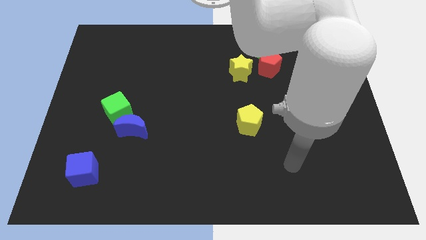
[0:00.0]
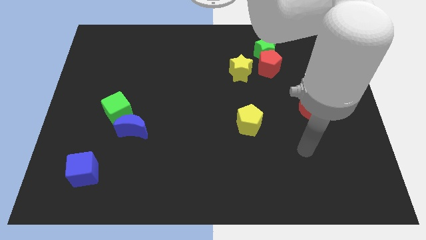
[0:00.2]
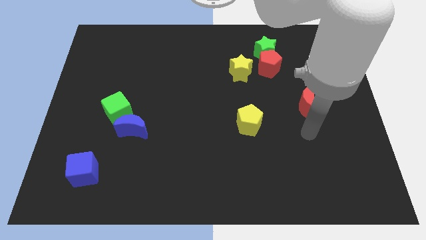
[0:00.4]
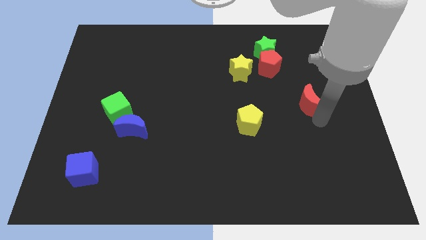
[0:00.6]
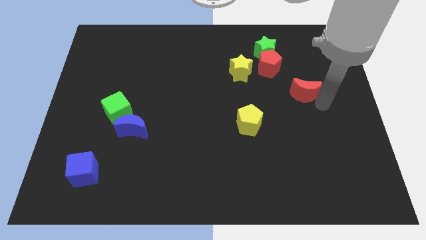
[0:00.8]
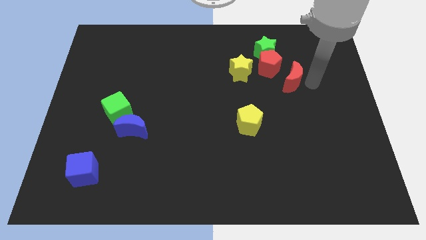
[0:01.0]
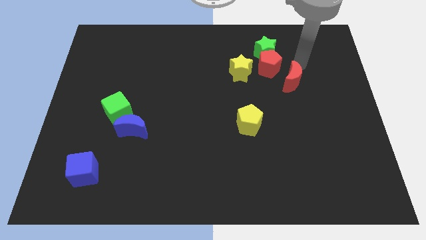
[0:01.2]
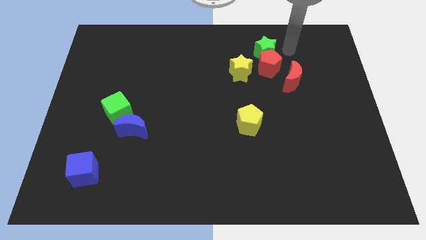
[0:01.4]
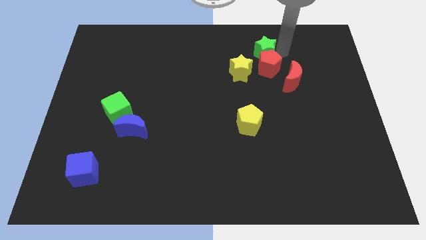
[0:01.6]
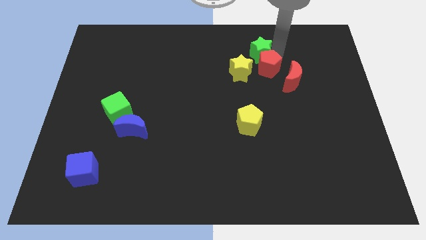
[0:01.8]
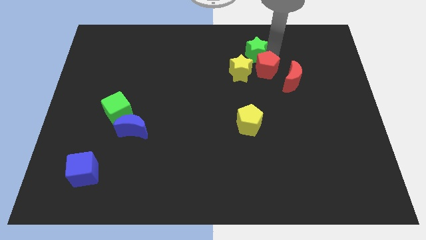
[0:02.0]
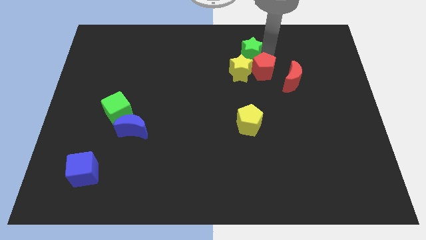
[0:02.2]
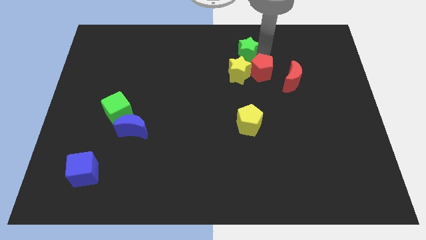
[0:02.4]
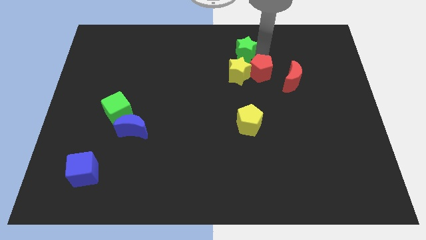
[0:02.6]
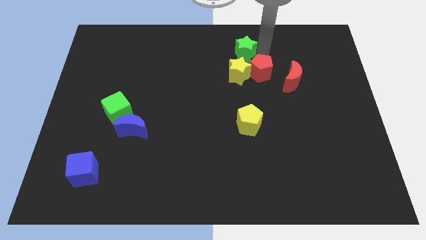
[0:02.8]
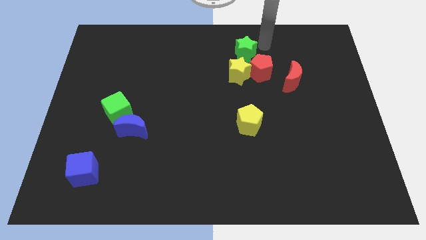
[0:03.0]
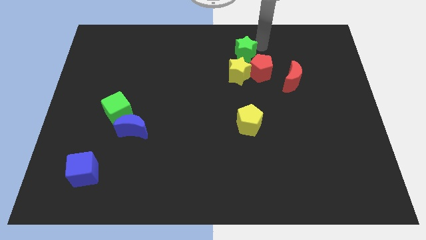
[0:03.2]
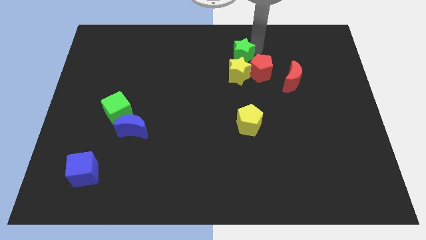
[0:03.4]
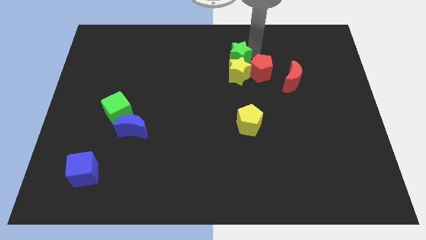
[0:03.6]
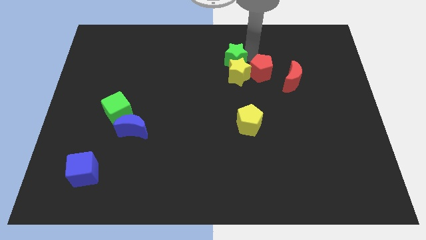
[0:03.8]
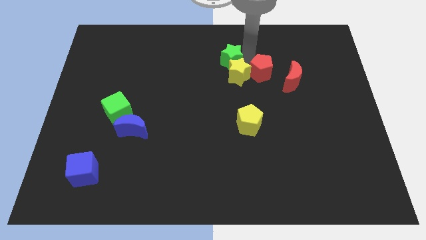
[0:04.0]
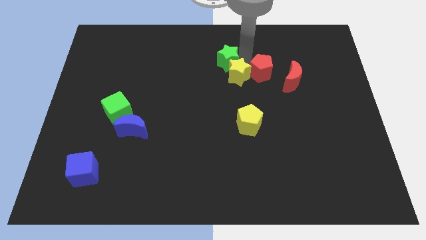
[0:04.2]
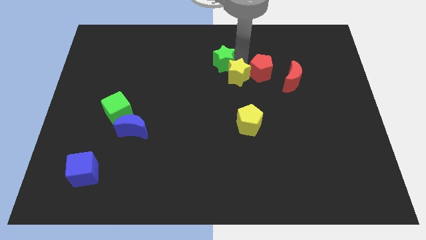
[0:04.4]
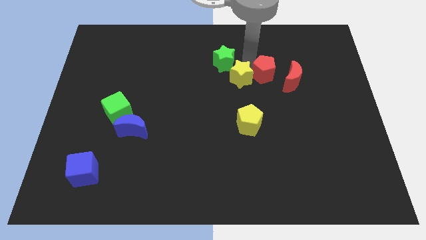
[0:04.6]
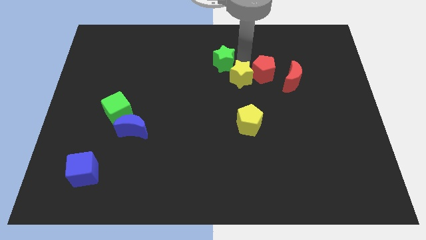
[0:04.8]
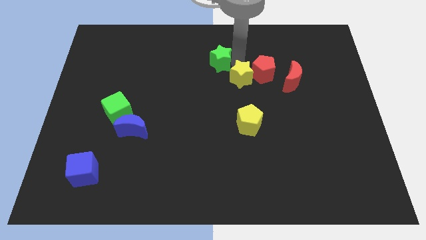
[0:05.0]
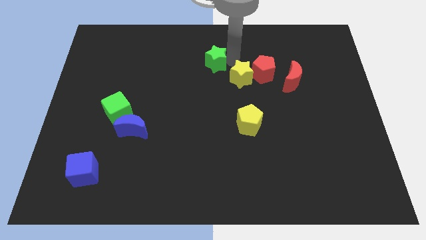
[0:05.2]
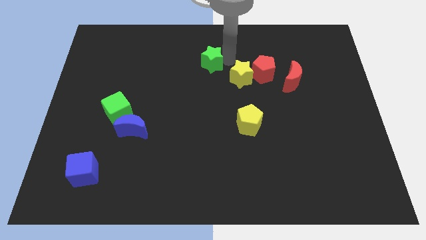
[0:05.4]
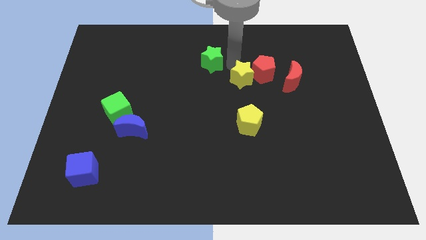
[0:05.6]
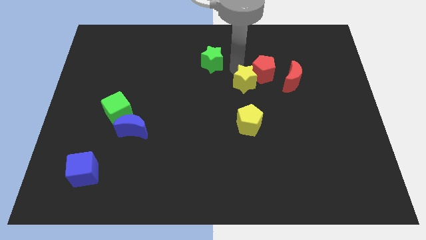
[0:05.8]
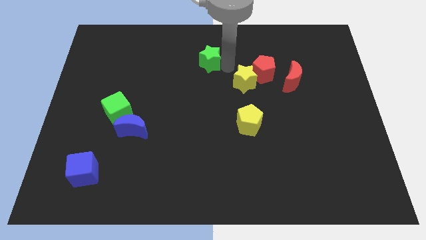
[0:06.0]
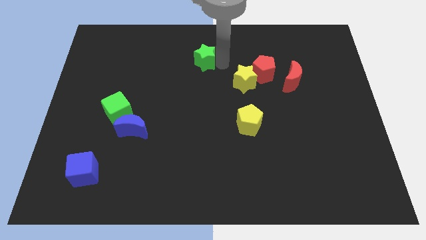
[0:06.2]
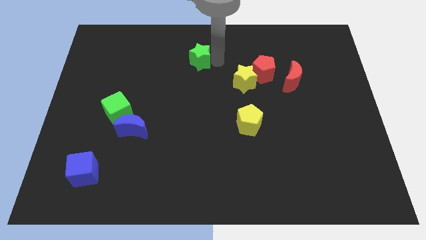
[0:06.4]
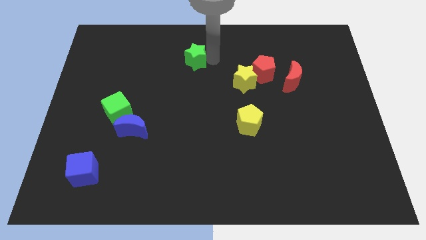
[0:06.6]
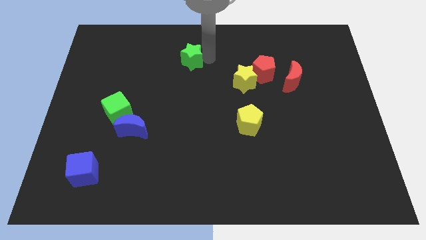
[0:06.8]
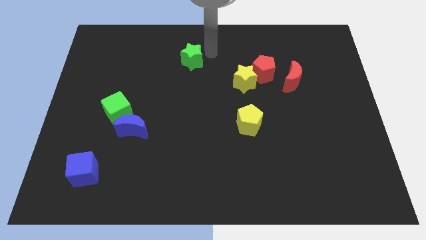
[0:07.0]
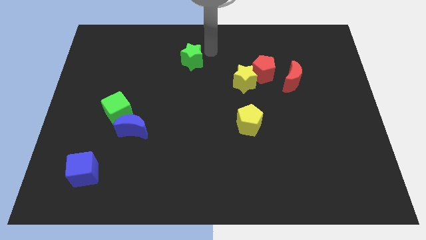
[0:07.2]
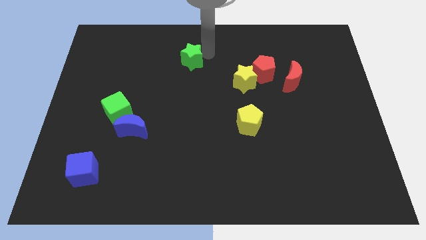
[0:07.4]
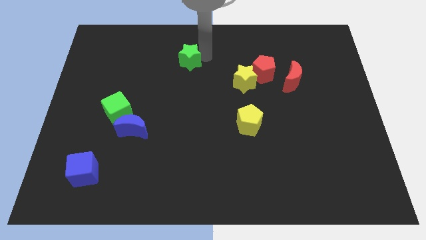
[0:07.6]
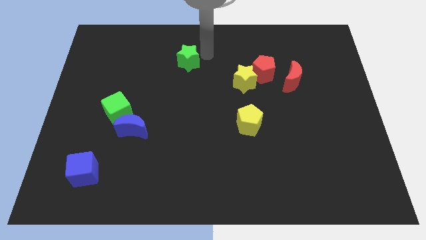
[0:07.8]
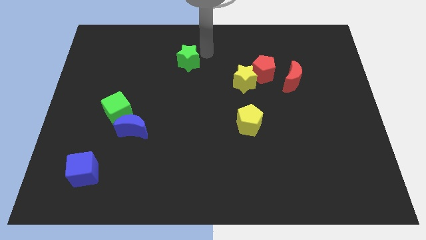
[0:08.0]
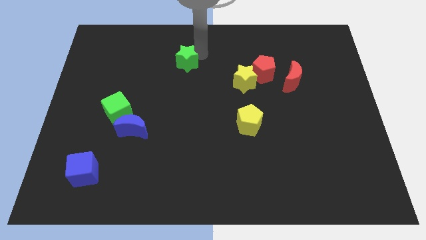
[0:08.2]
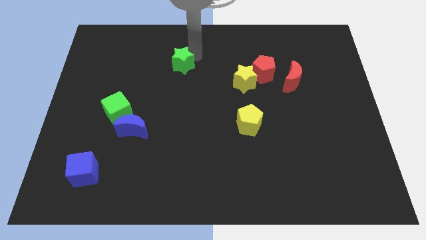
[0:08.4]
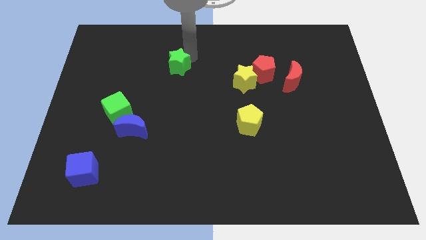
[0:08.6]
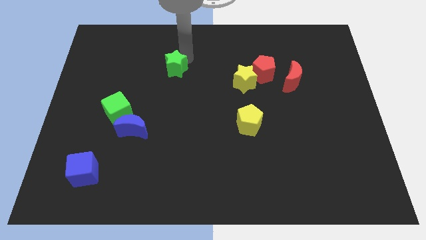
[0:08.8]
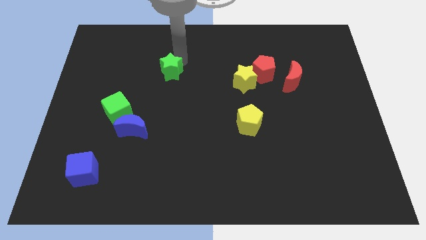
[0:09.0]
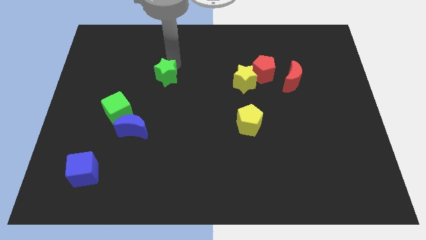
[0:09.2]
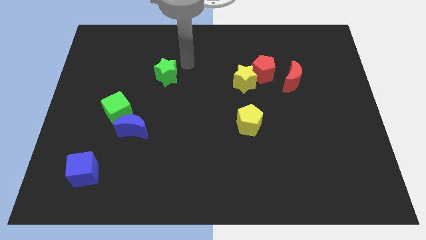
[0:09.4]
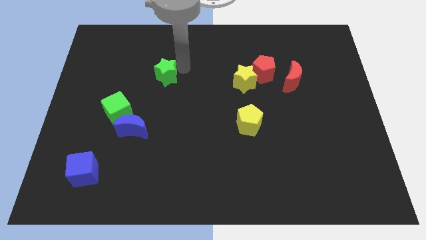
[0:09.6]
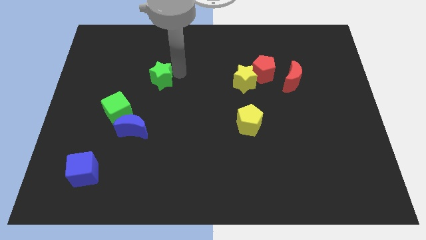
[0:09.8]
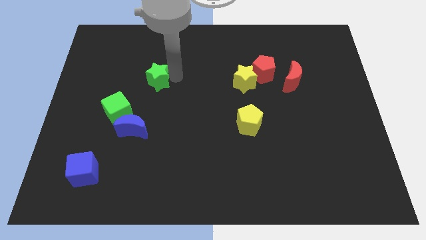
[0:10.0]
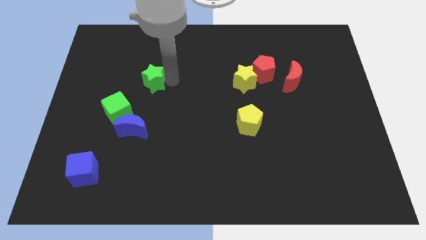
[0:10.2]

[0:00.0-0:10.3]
put the green star to the top side of the blue moon

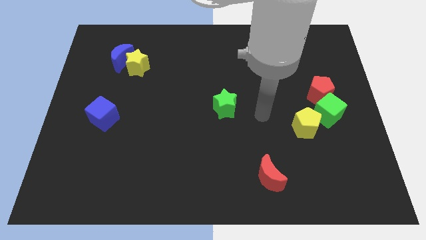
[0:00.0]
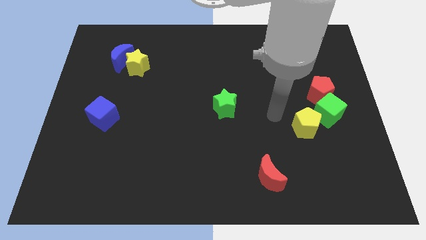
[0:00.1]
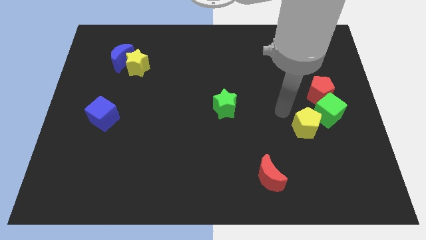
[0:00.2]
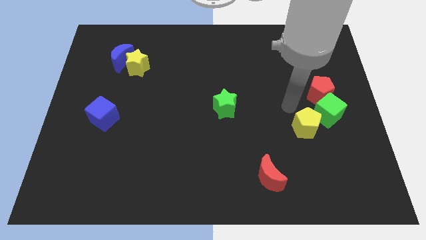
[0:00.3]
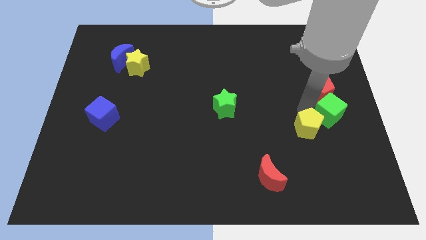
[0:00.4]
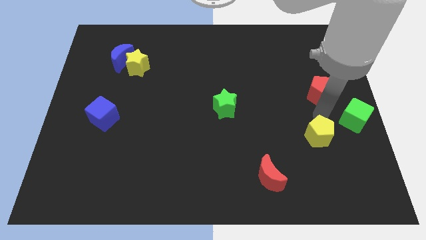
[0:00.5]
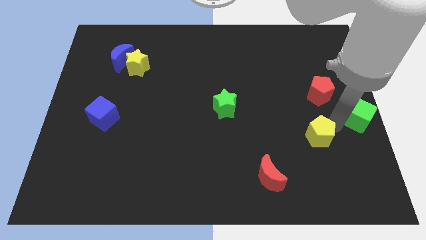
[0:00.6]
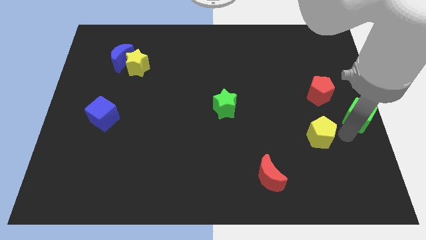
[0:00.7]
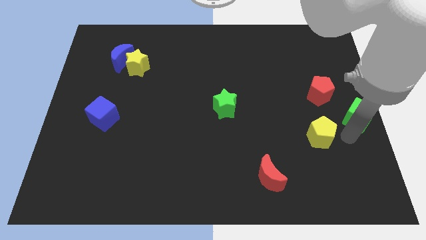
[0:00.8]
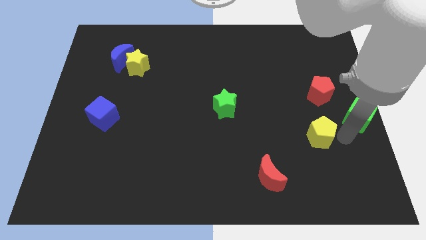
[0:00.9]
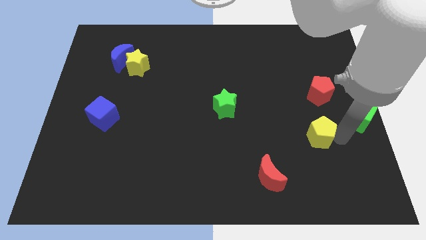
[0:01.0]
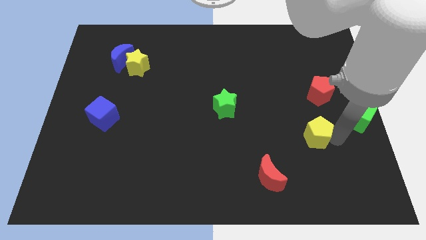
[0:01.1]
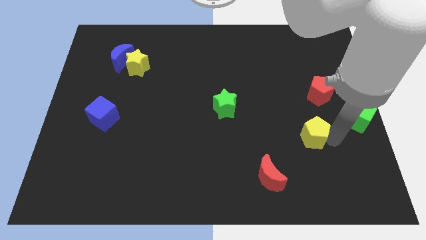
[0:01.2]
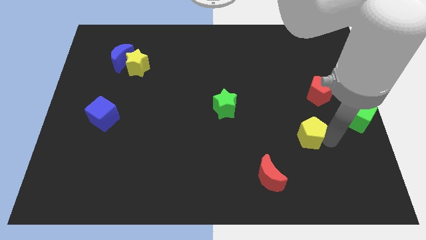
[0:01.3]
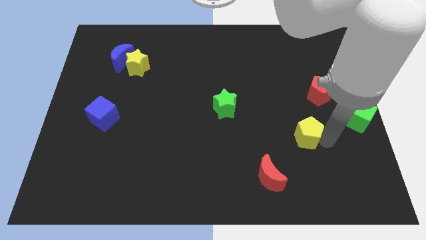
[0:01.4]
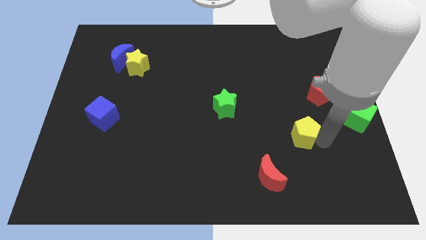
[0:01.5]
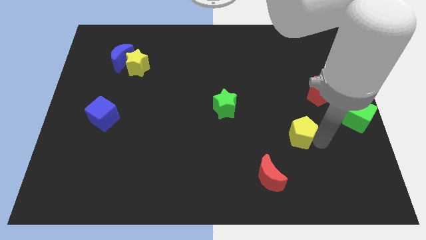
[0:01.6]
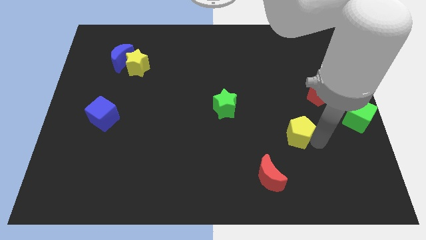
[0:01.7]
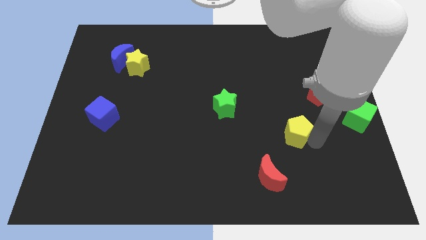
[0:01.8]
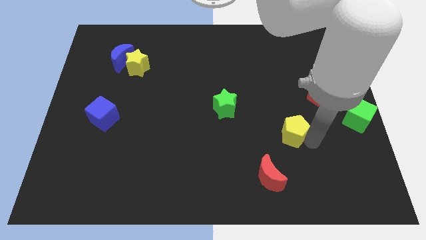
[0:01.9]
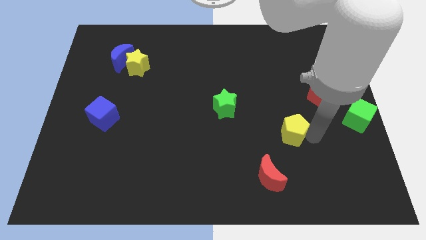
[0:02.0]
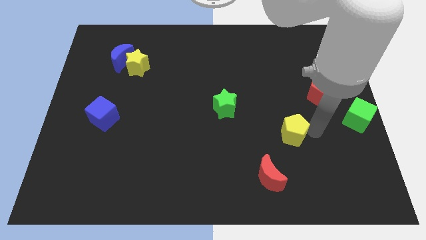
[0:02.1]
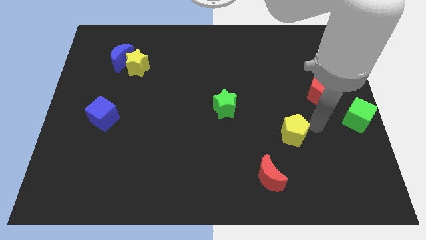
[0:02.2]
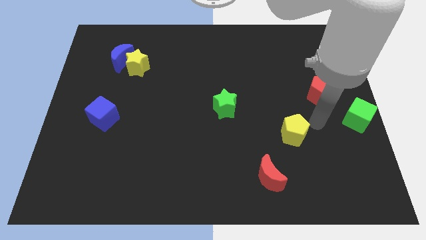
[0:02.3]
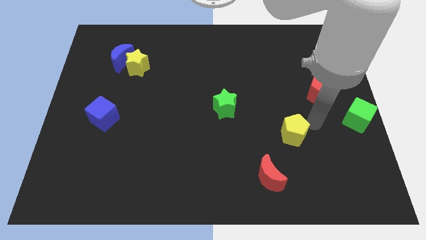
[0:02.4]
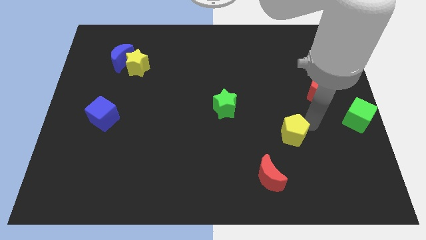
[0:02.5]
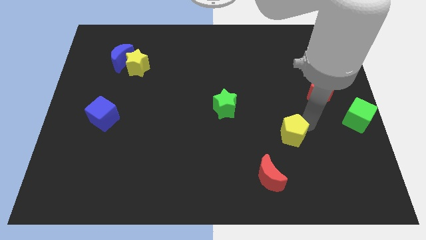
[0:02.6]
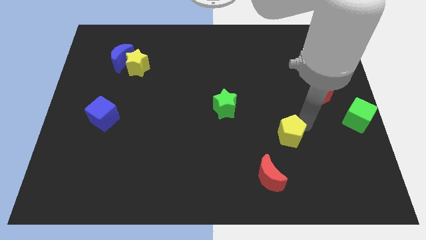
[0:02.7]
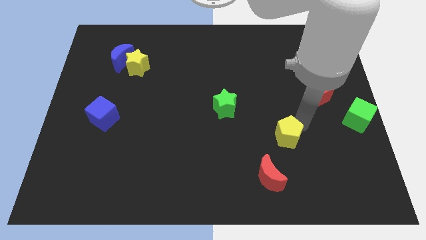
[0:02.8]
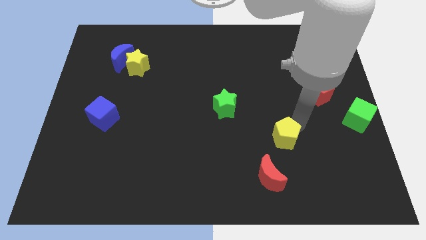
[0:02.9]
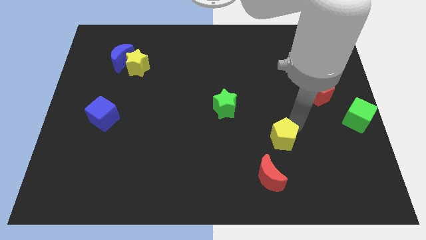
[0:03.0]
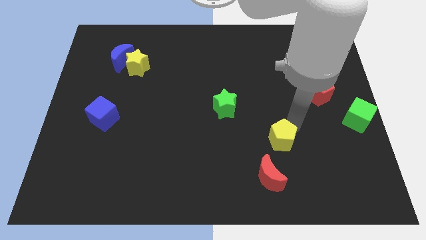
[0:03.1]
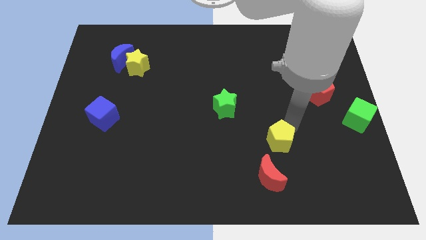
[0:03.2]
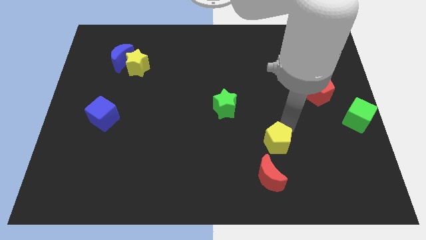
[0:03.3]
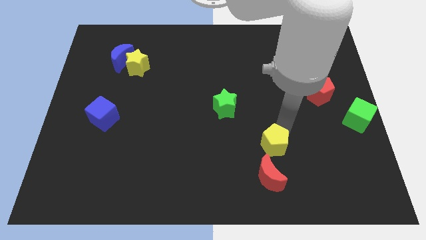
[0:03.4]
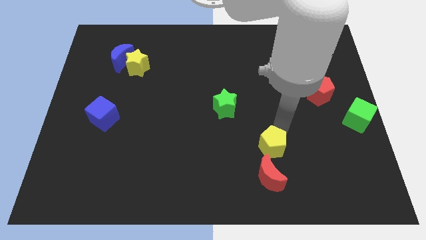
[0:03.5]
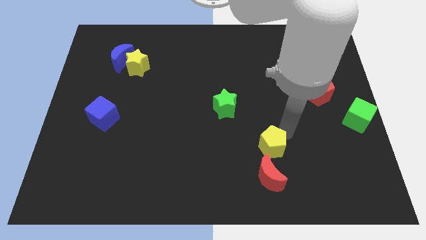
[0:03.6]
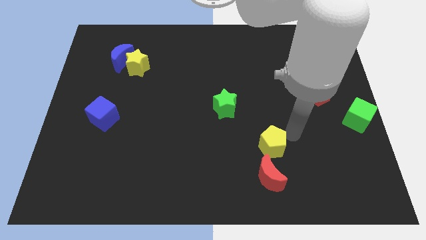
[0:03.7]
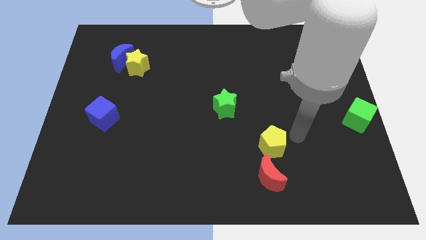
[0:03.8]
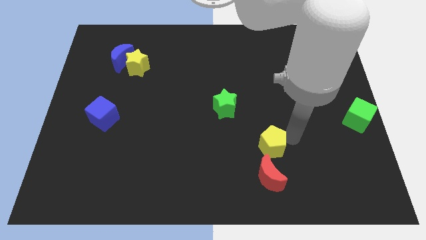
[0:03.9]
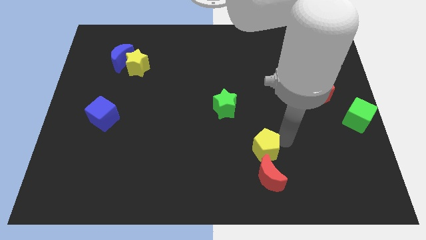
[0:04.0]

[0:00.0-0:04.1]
put the yellow pentagon diagonally up and to the left of the red moon
